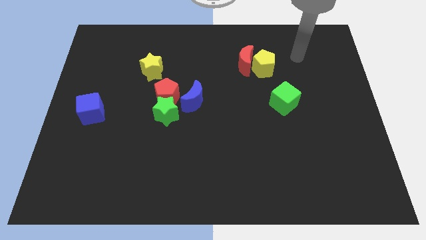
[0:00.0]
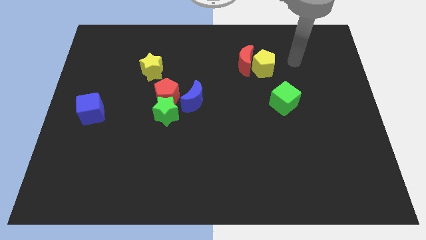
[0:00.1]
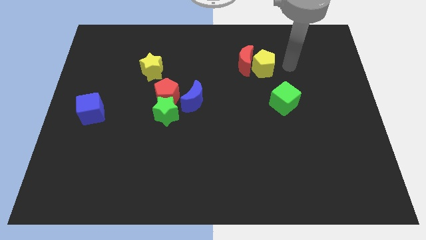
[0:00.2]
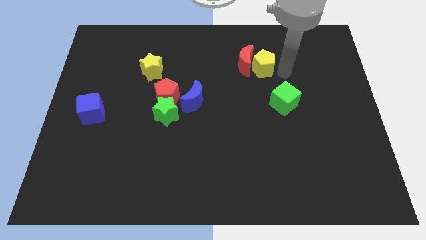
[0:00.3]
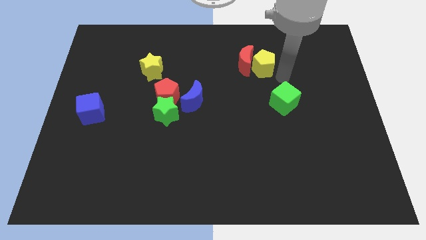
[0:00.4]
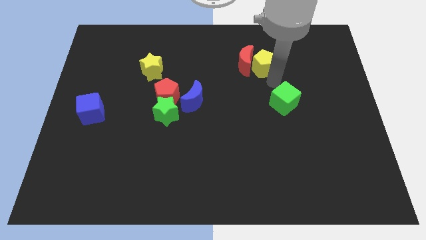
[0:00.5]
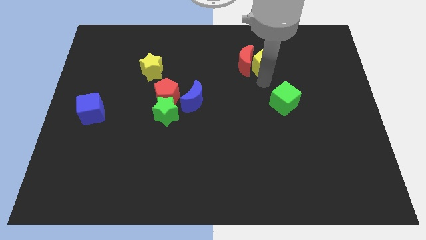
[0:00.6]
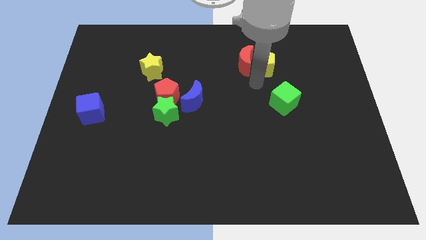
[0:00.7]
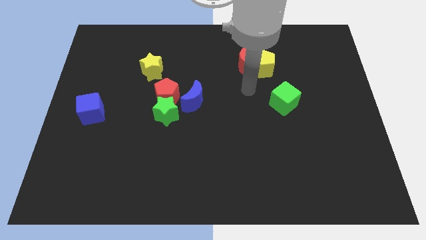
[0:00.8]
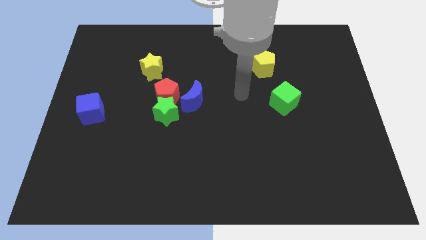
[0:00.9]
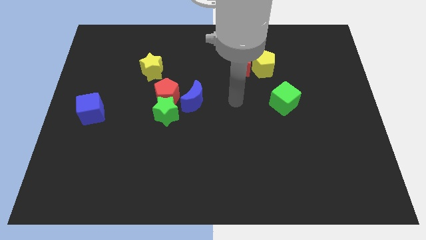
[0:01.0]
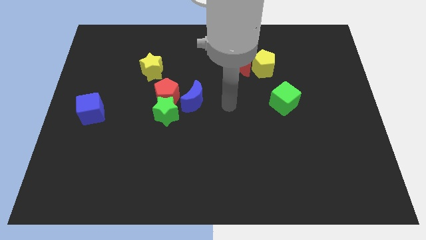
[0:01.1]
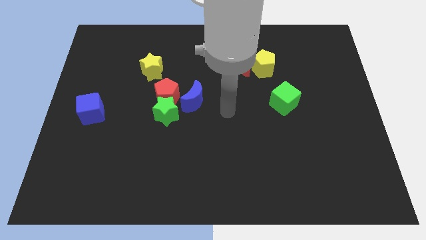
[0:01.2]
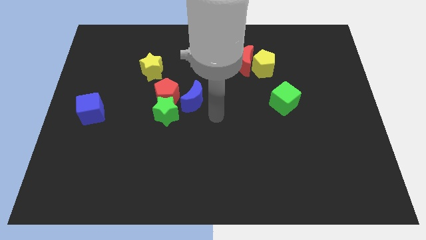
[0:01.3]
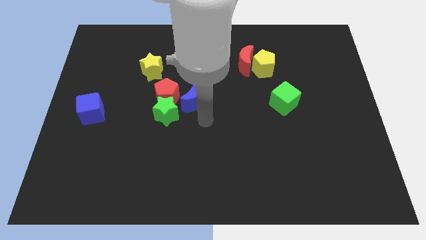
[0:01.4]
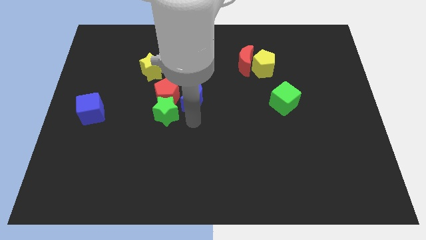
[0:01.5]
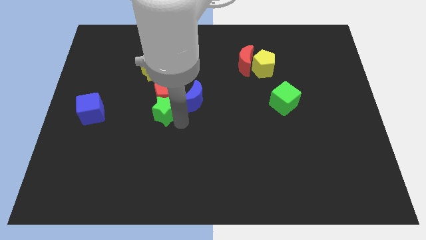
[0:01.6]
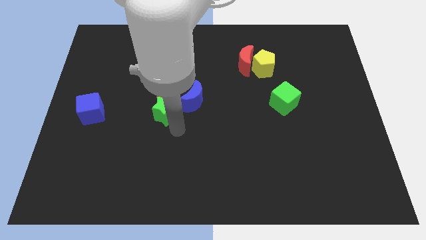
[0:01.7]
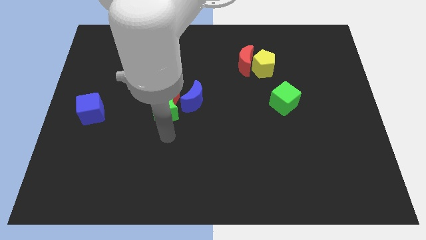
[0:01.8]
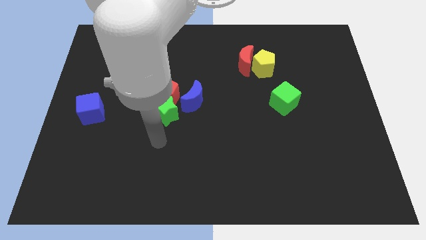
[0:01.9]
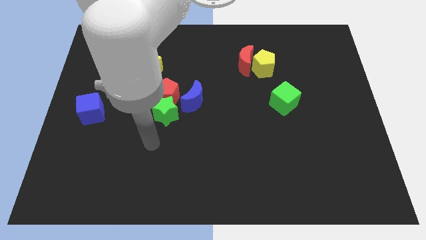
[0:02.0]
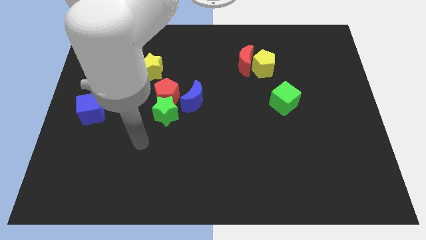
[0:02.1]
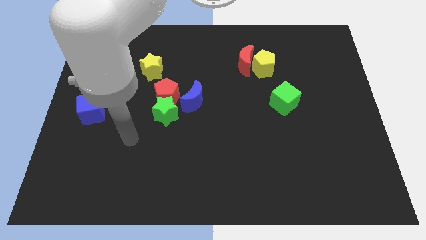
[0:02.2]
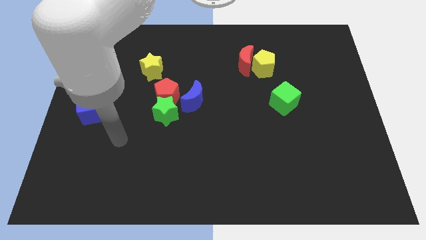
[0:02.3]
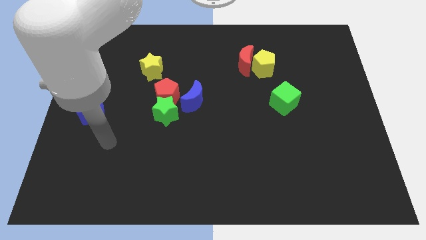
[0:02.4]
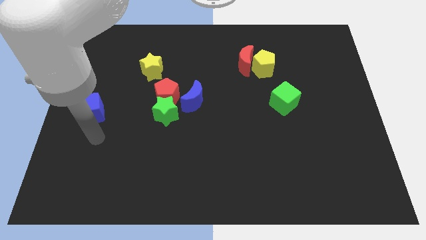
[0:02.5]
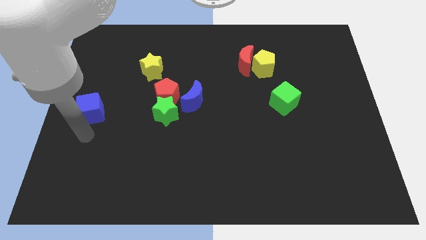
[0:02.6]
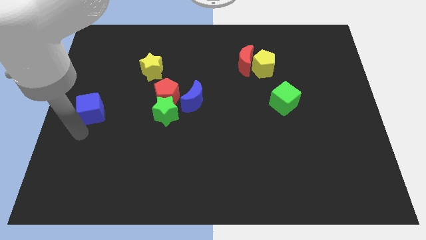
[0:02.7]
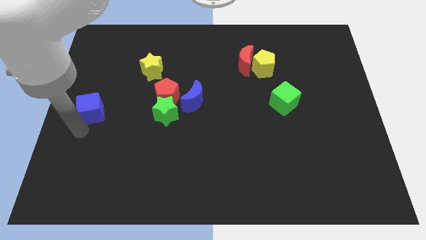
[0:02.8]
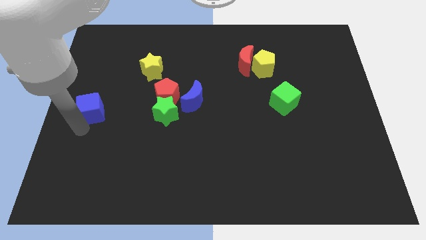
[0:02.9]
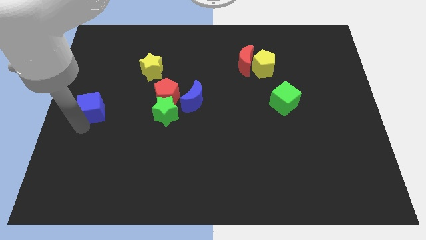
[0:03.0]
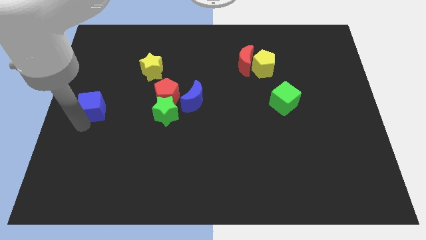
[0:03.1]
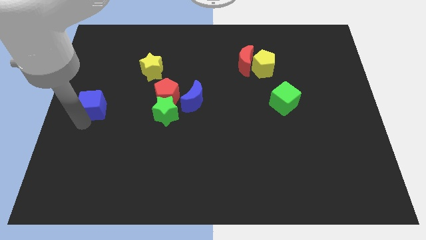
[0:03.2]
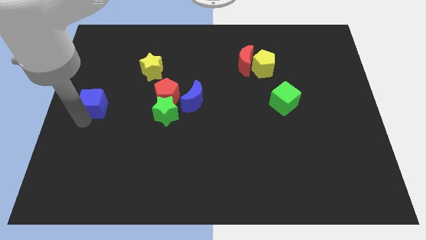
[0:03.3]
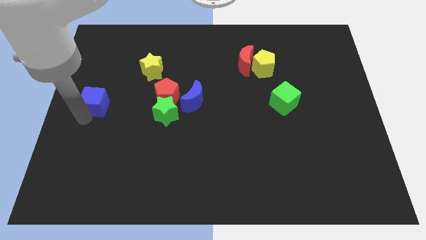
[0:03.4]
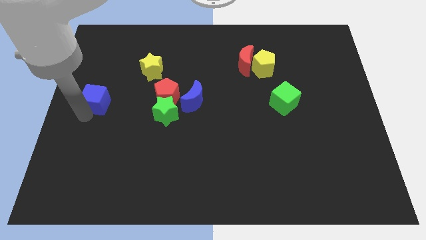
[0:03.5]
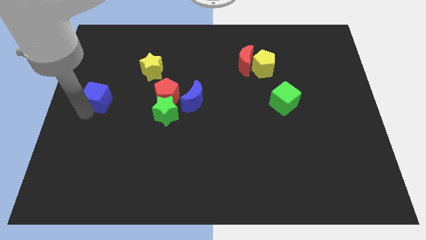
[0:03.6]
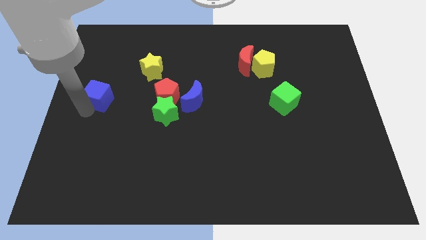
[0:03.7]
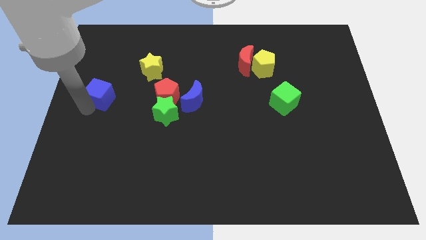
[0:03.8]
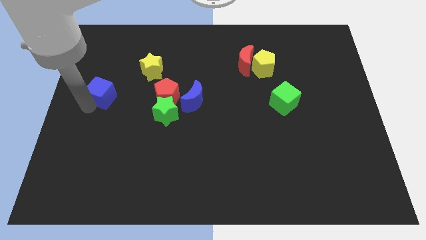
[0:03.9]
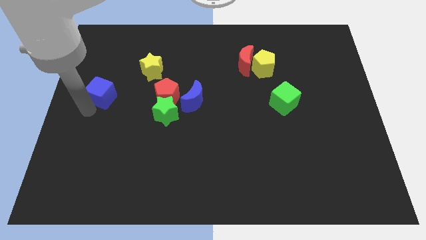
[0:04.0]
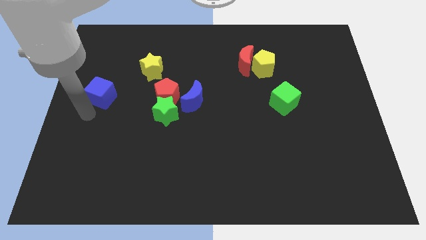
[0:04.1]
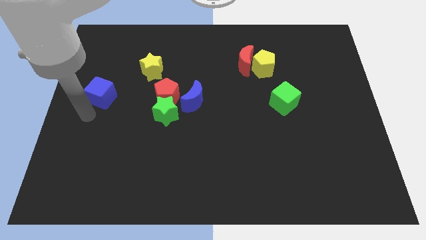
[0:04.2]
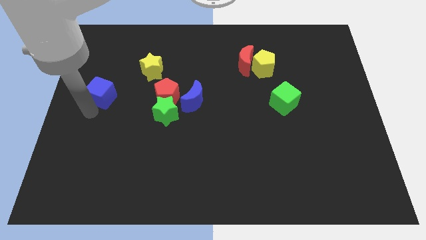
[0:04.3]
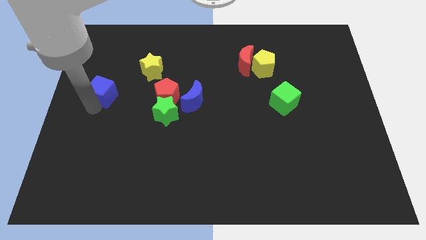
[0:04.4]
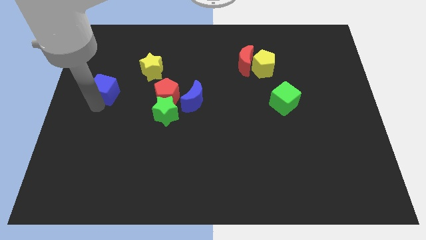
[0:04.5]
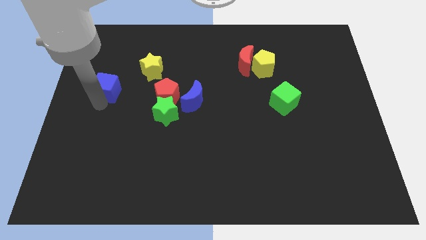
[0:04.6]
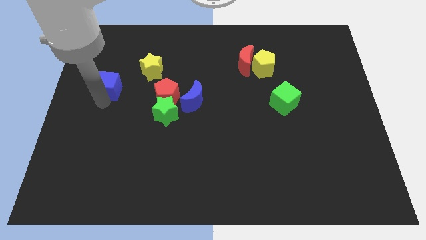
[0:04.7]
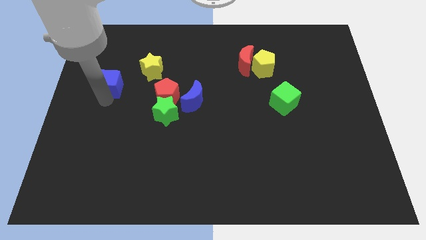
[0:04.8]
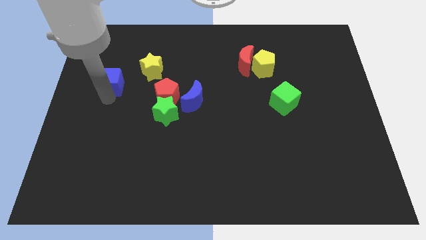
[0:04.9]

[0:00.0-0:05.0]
push the blue cube to the left of the yellow star

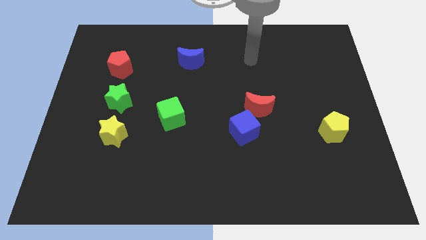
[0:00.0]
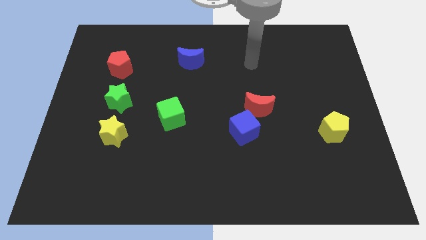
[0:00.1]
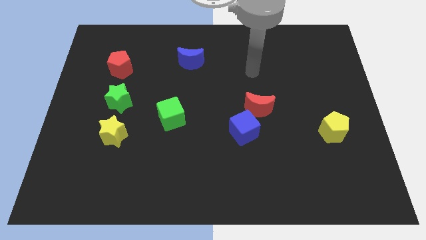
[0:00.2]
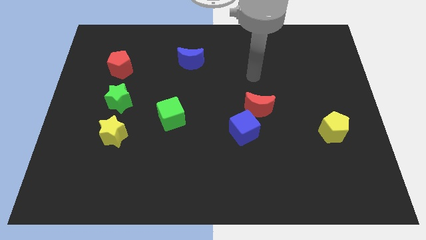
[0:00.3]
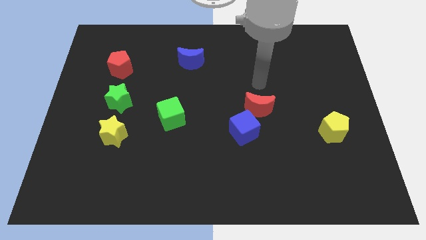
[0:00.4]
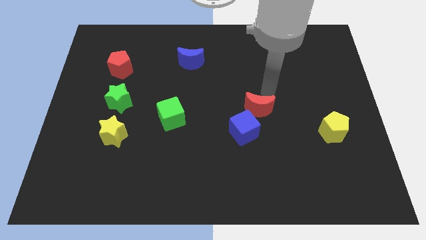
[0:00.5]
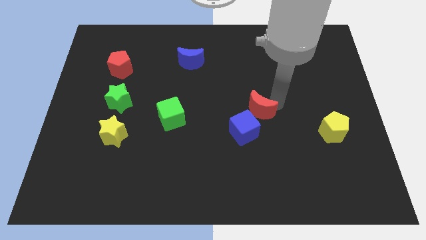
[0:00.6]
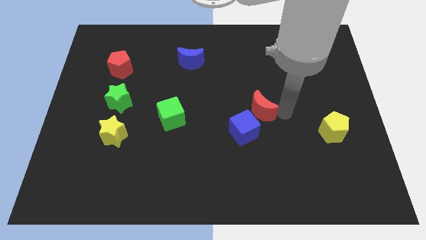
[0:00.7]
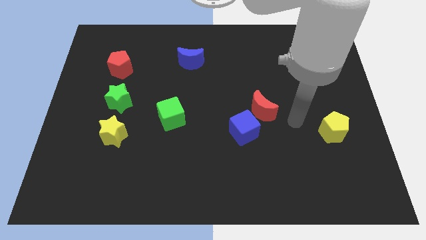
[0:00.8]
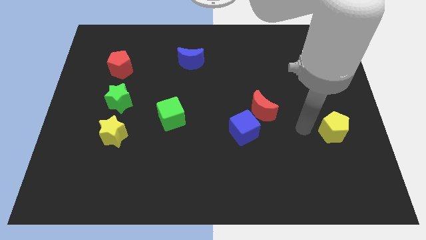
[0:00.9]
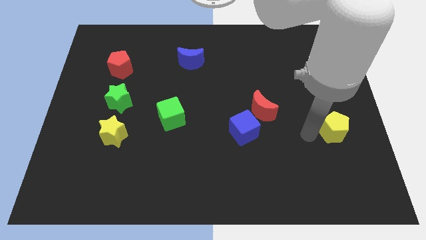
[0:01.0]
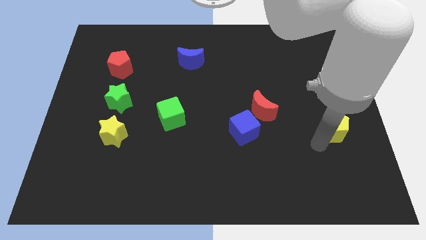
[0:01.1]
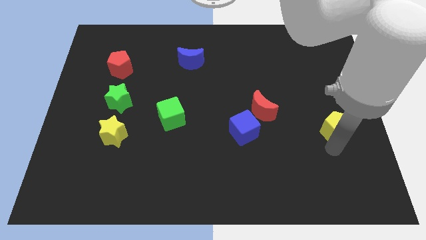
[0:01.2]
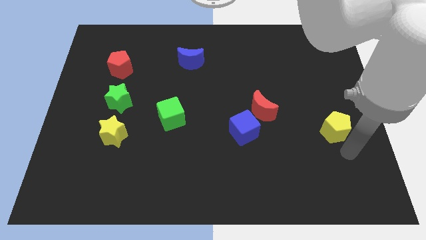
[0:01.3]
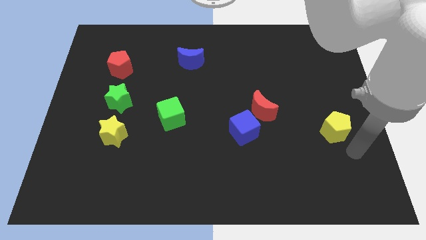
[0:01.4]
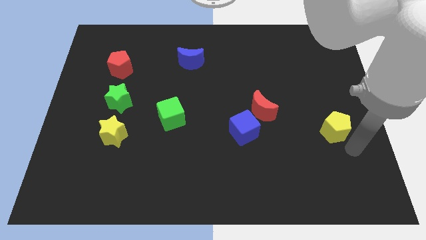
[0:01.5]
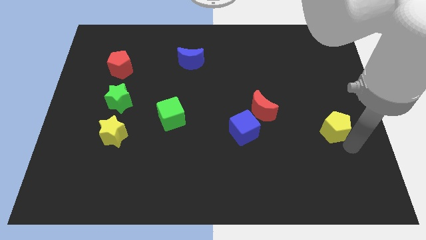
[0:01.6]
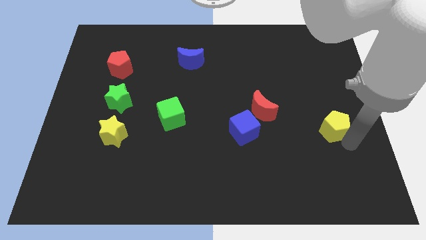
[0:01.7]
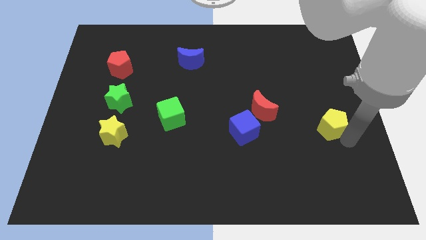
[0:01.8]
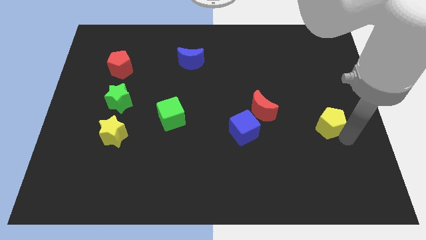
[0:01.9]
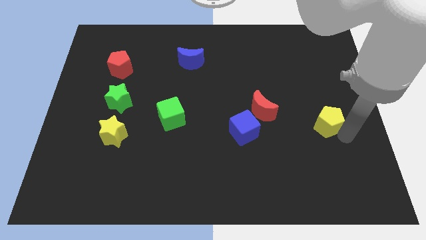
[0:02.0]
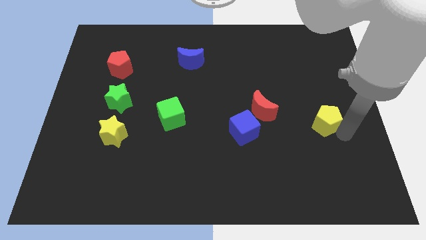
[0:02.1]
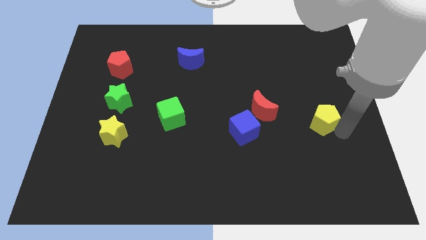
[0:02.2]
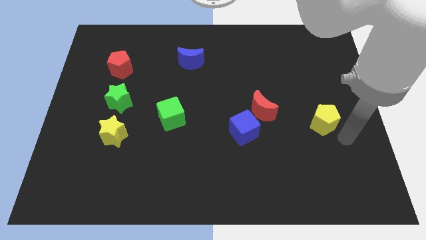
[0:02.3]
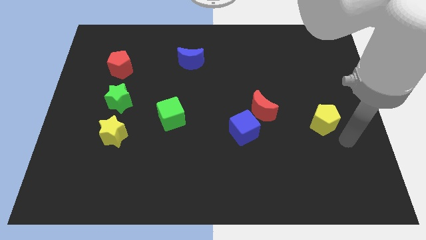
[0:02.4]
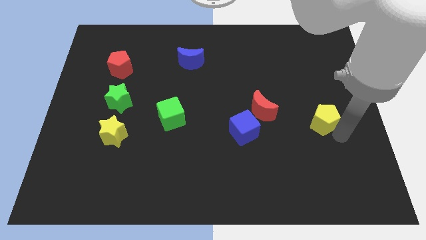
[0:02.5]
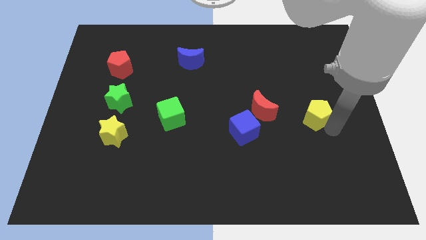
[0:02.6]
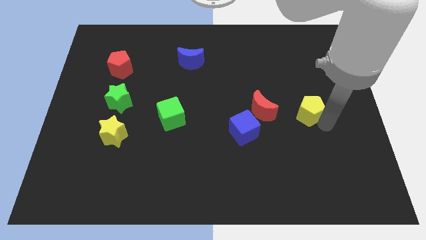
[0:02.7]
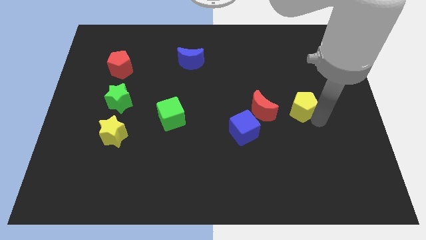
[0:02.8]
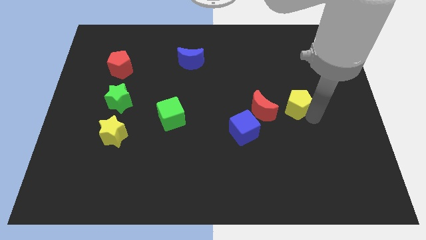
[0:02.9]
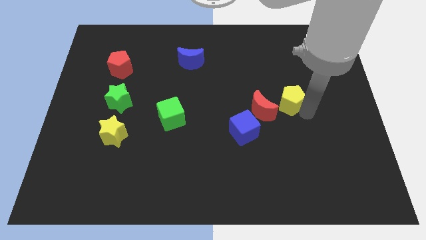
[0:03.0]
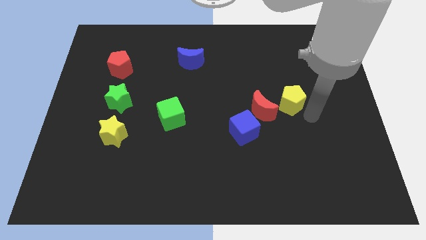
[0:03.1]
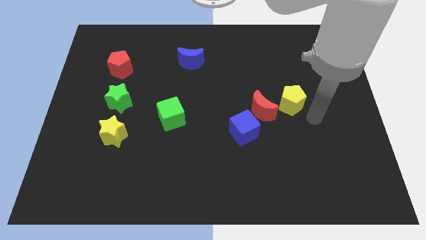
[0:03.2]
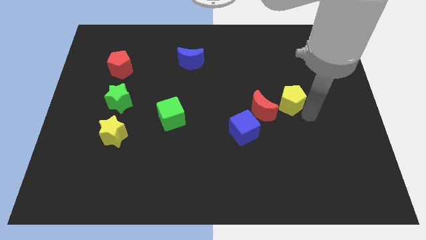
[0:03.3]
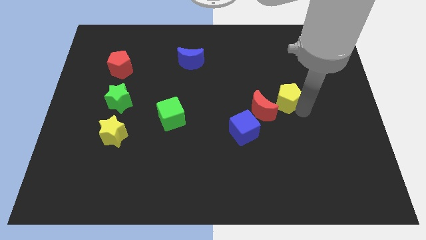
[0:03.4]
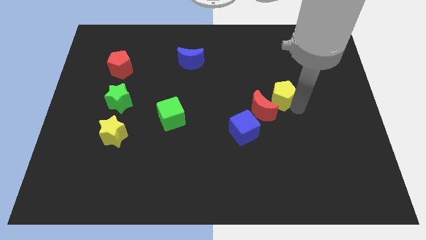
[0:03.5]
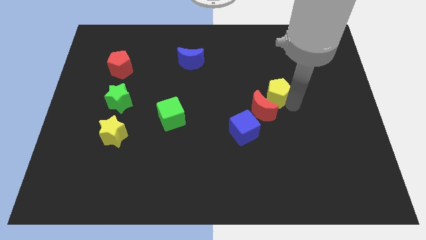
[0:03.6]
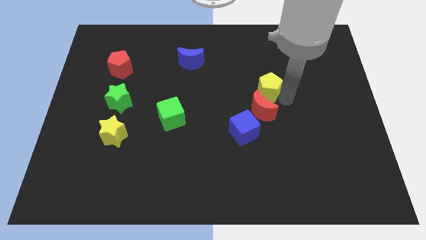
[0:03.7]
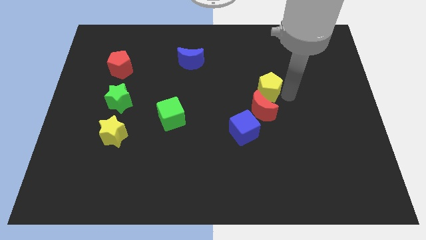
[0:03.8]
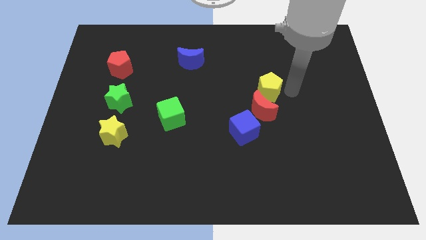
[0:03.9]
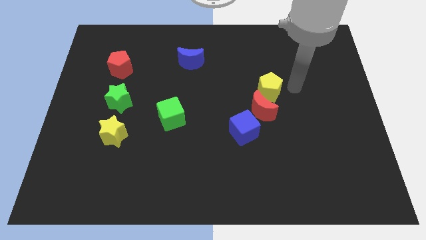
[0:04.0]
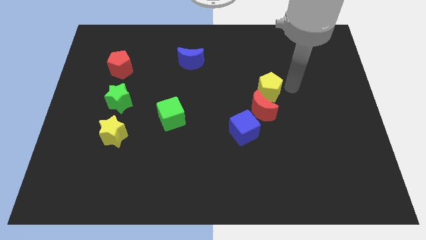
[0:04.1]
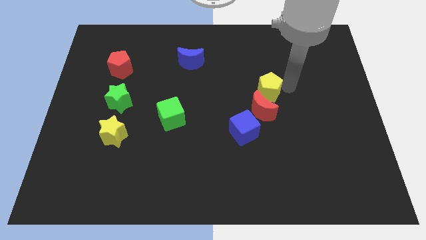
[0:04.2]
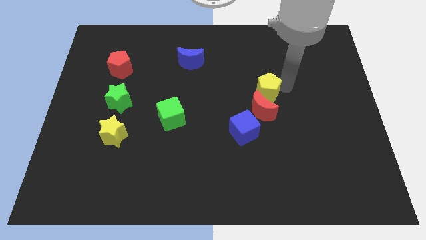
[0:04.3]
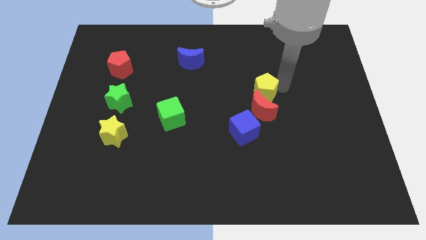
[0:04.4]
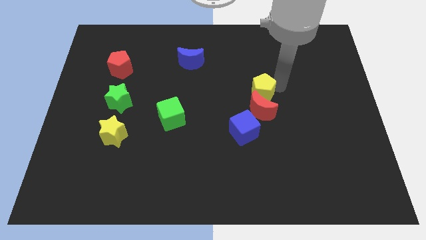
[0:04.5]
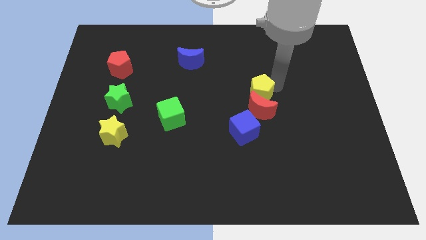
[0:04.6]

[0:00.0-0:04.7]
move the yellow pentagon above the blue cube
